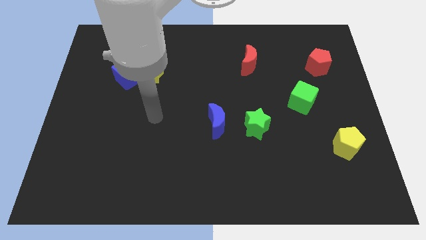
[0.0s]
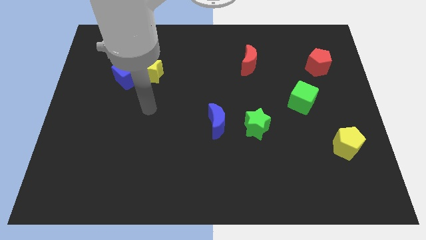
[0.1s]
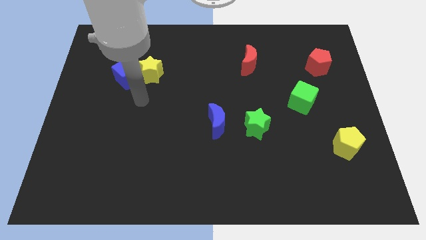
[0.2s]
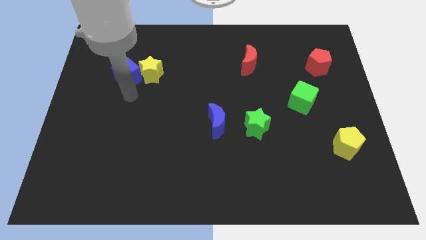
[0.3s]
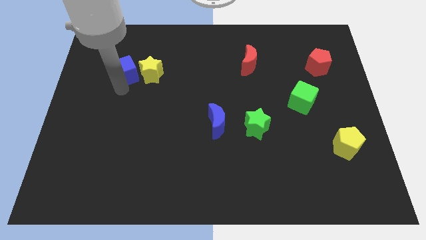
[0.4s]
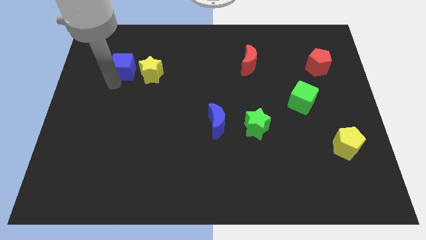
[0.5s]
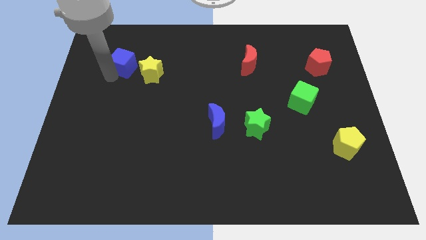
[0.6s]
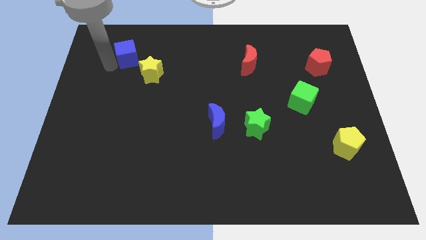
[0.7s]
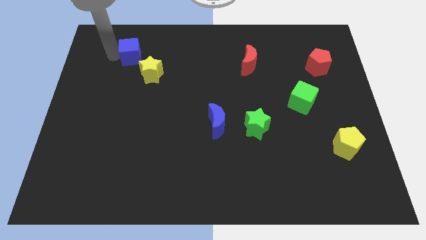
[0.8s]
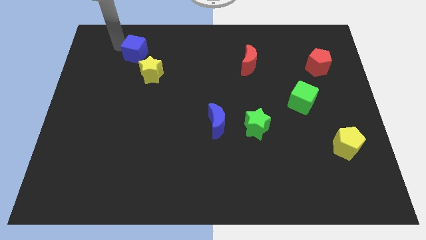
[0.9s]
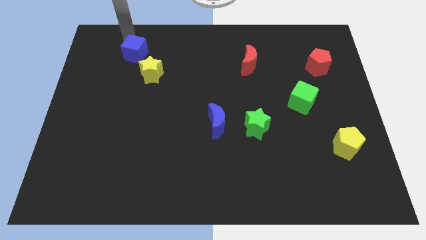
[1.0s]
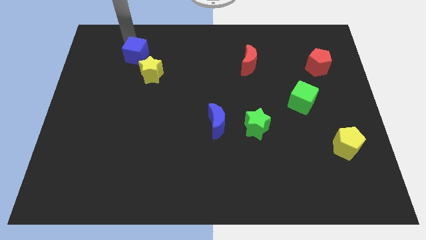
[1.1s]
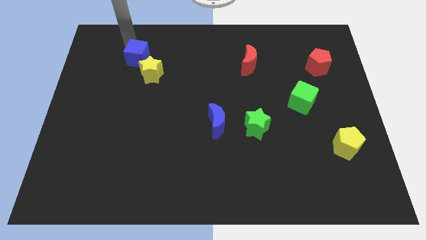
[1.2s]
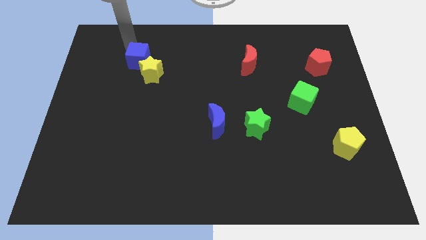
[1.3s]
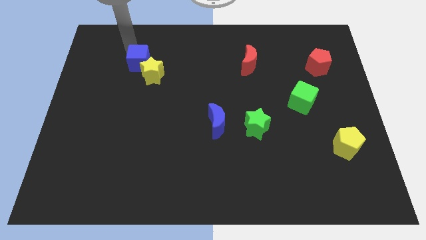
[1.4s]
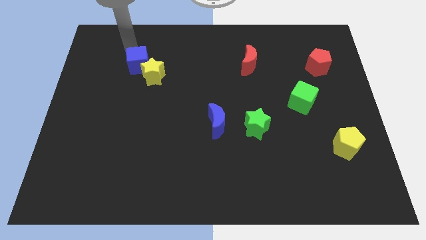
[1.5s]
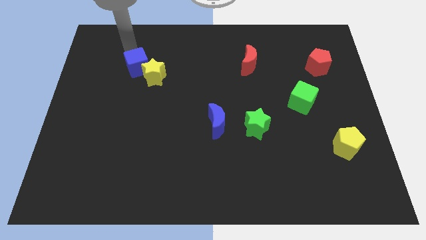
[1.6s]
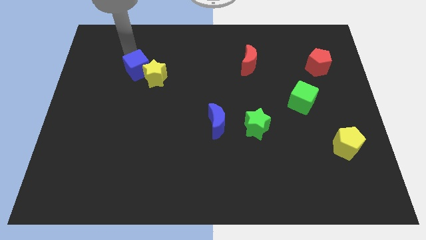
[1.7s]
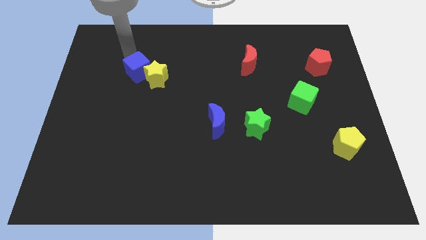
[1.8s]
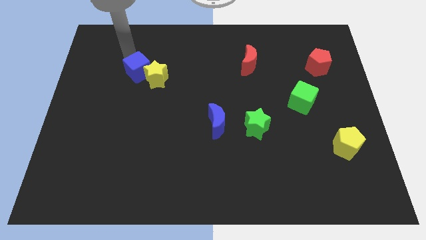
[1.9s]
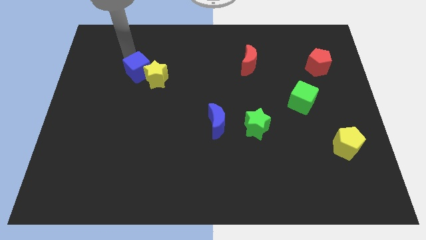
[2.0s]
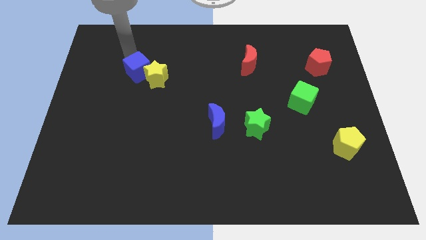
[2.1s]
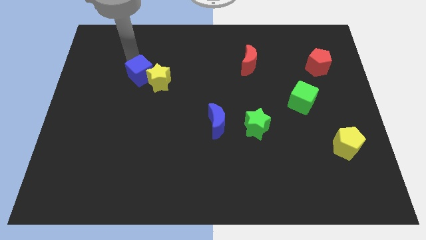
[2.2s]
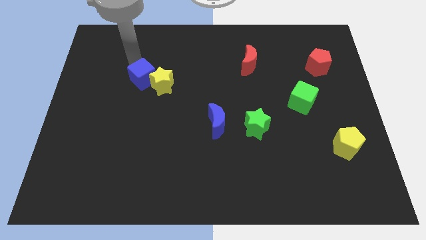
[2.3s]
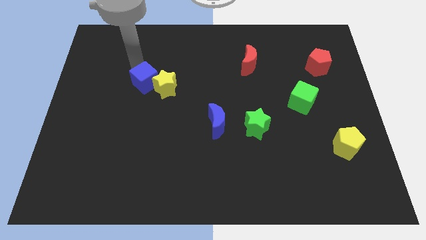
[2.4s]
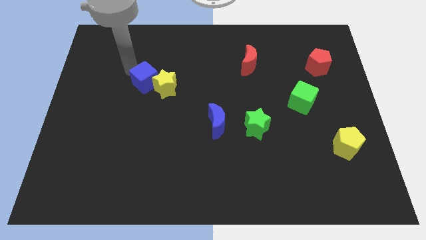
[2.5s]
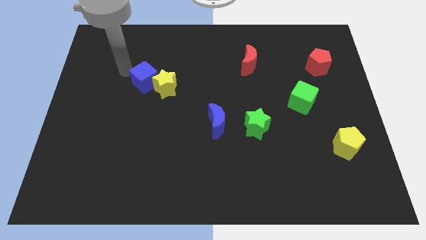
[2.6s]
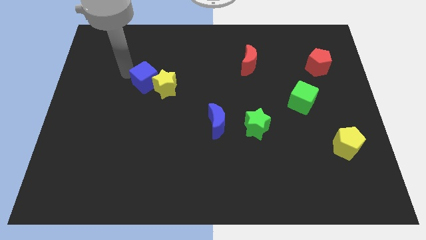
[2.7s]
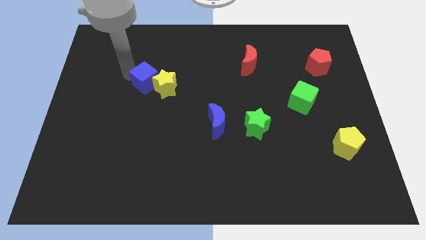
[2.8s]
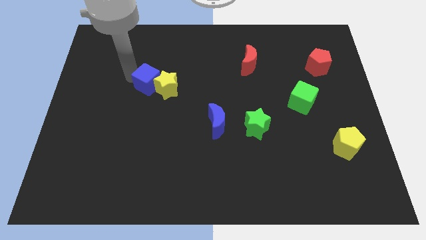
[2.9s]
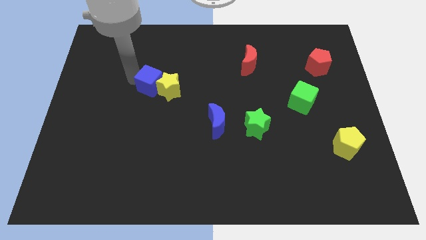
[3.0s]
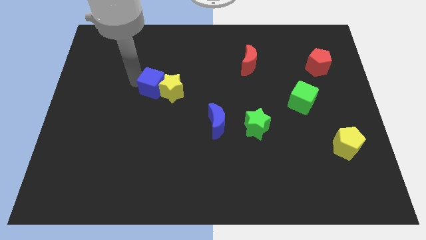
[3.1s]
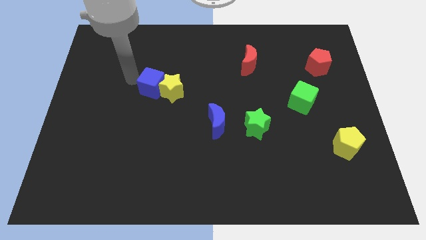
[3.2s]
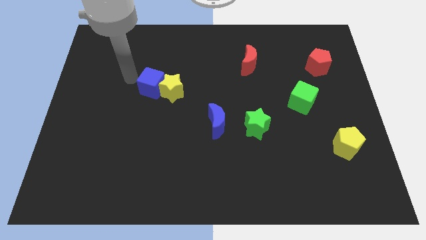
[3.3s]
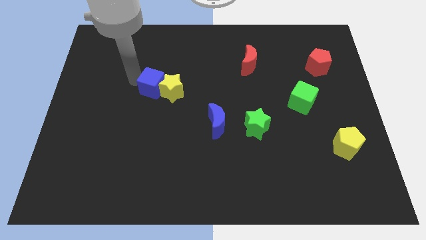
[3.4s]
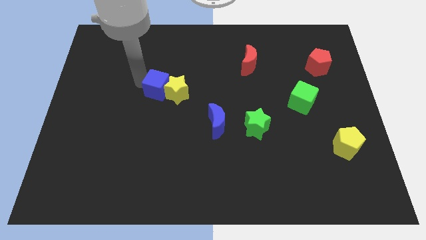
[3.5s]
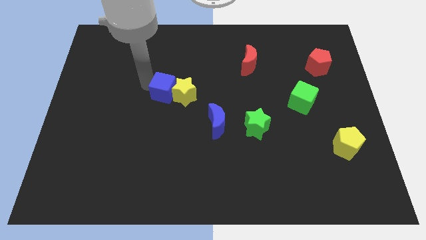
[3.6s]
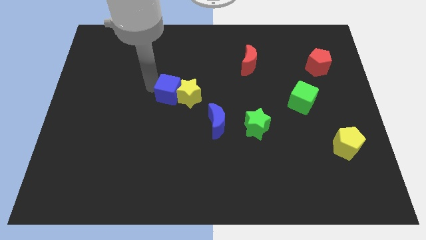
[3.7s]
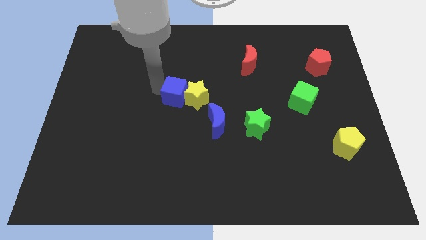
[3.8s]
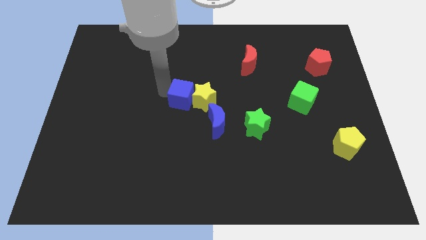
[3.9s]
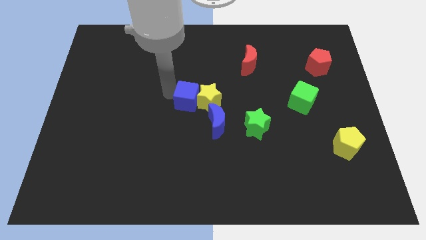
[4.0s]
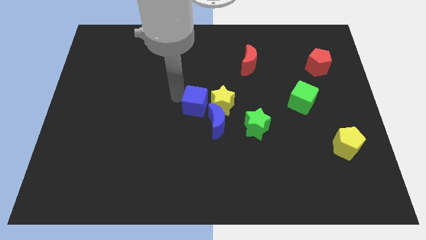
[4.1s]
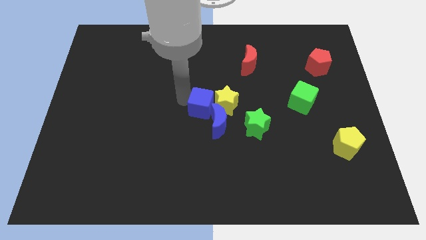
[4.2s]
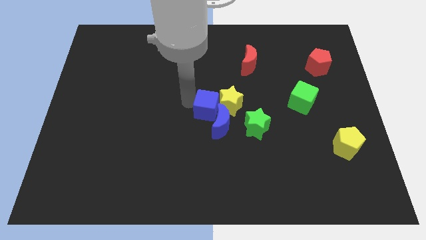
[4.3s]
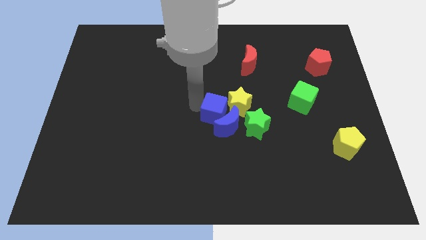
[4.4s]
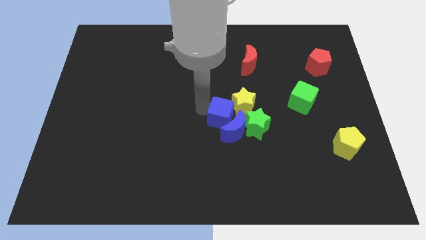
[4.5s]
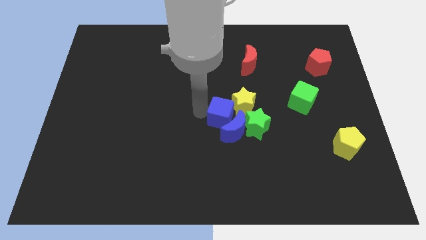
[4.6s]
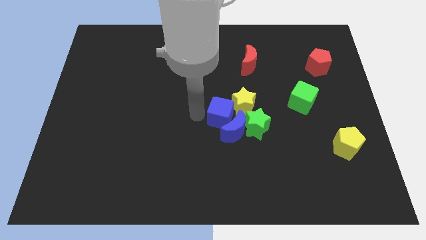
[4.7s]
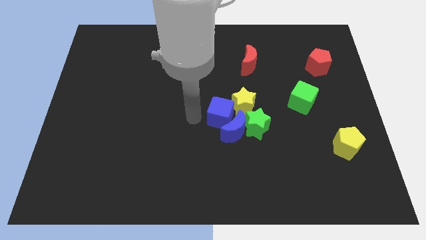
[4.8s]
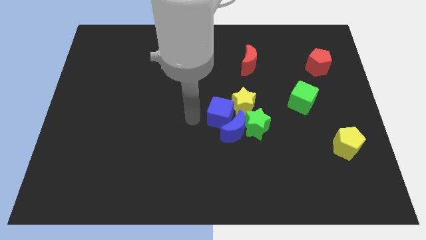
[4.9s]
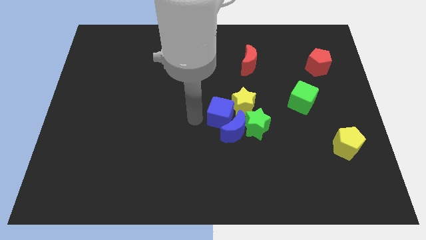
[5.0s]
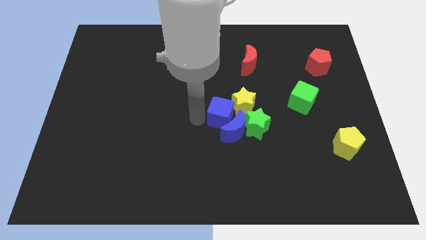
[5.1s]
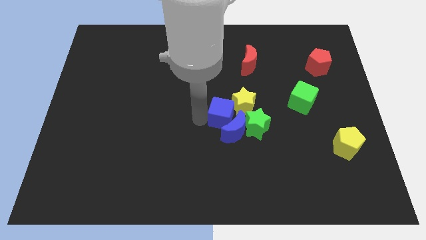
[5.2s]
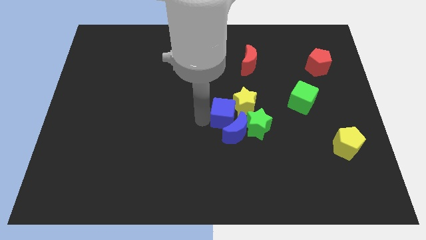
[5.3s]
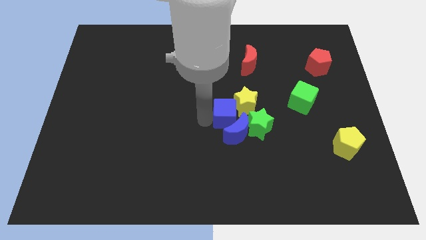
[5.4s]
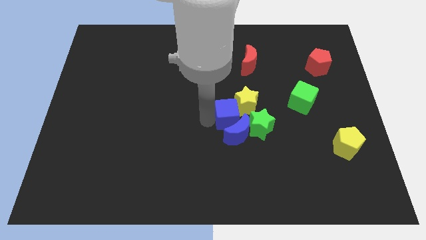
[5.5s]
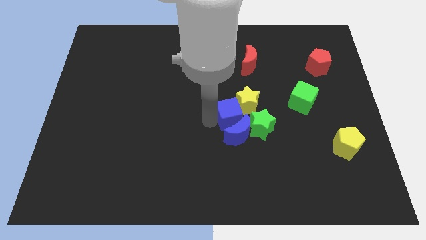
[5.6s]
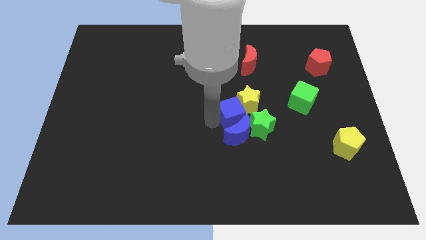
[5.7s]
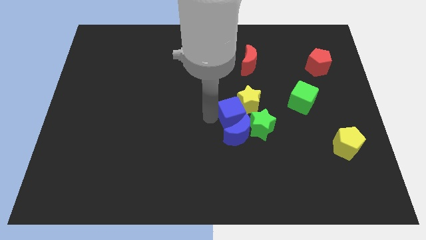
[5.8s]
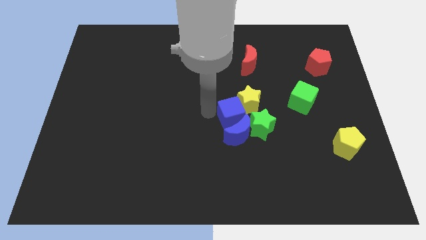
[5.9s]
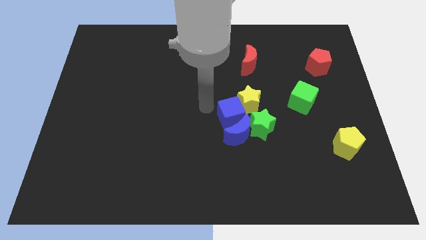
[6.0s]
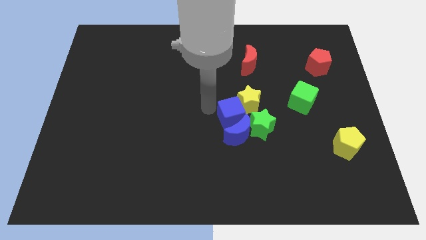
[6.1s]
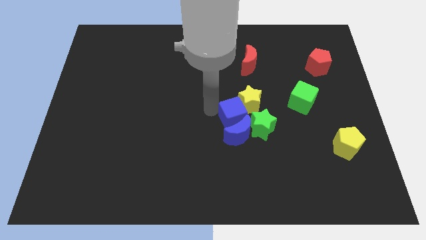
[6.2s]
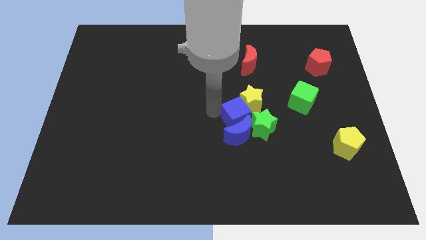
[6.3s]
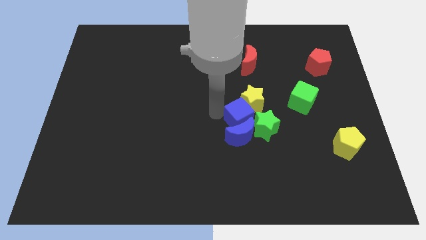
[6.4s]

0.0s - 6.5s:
move the blue cube close to the green star

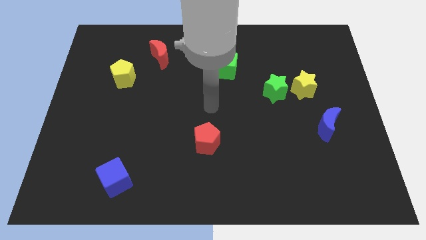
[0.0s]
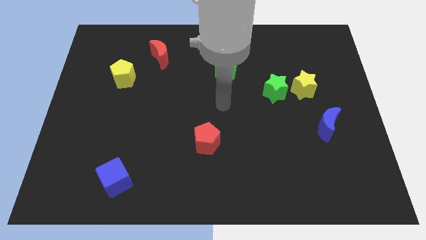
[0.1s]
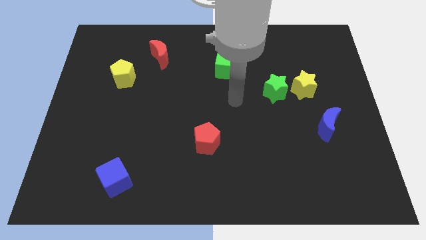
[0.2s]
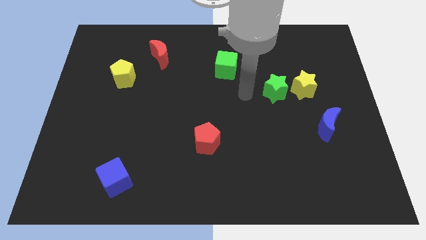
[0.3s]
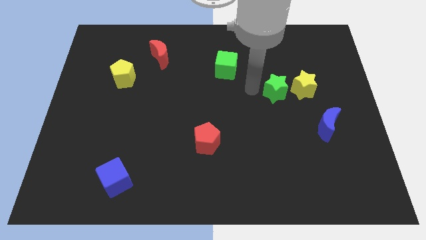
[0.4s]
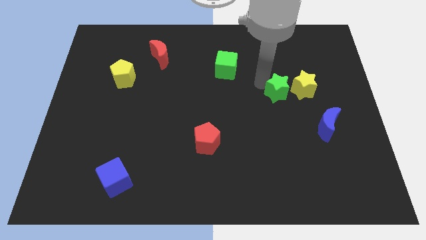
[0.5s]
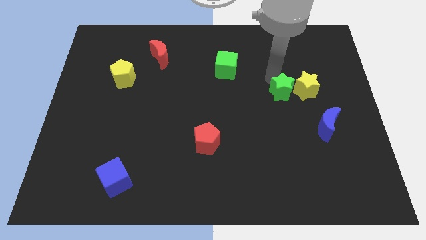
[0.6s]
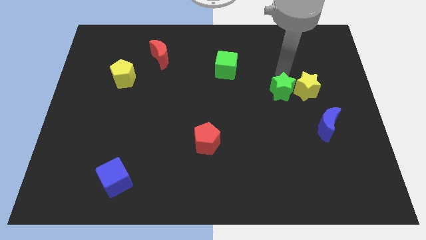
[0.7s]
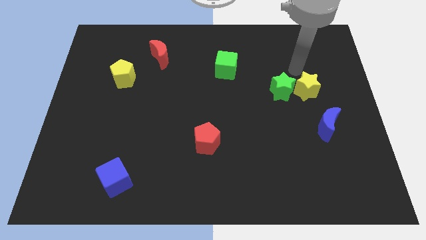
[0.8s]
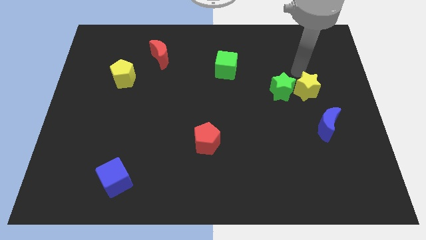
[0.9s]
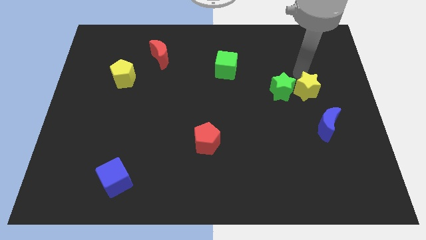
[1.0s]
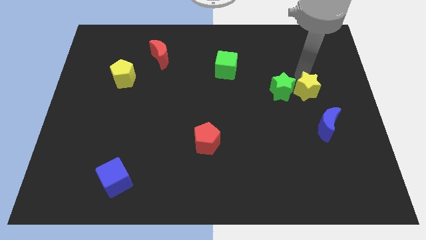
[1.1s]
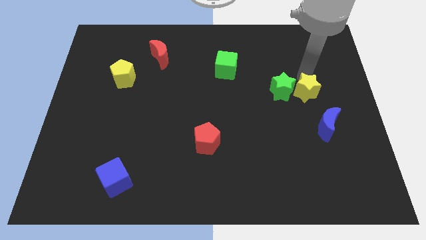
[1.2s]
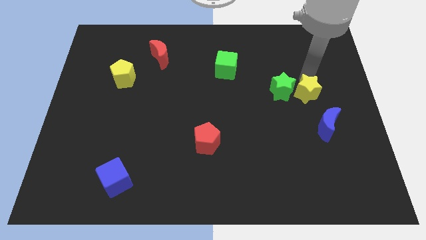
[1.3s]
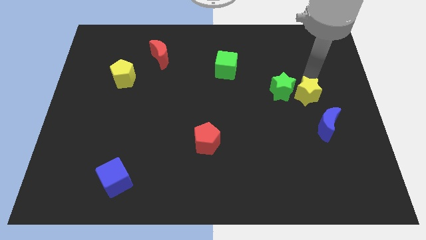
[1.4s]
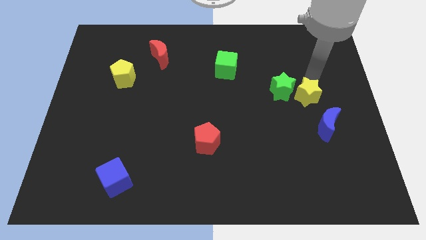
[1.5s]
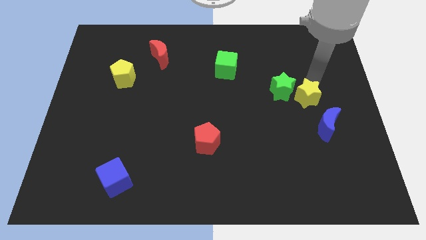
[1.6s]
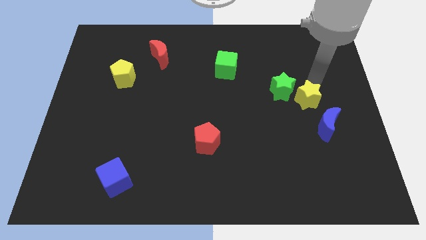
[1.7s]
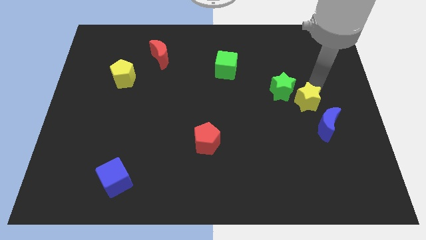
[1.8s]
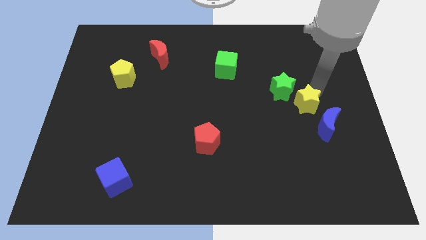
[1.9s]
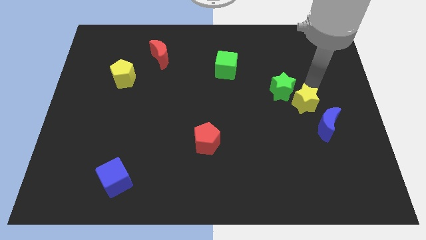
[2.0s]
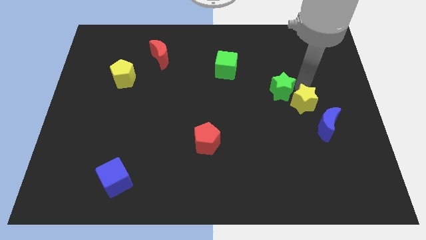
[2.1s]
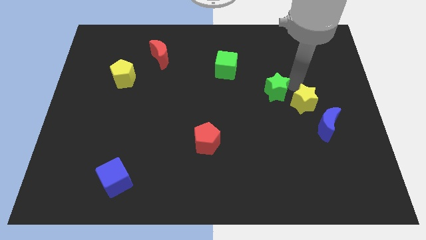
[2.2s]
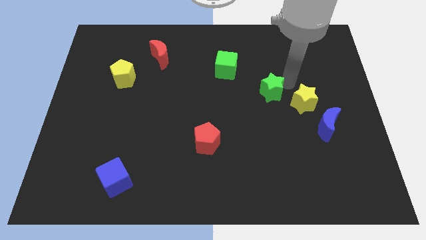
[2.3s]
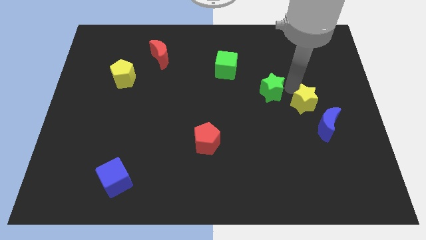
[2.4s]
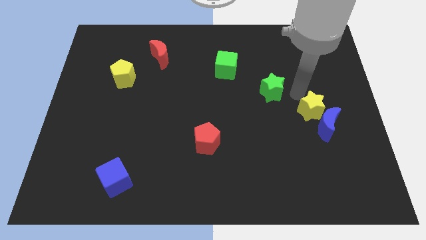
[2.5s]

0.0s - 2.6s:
push the yellow star close to the blue moon
